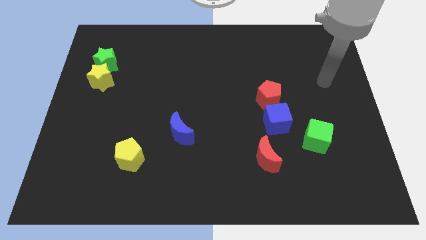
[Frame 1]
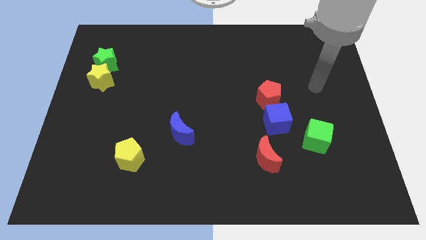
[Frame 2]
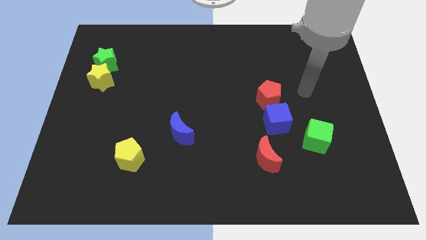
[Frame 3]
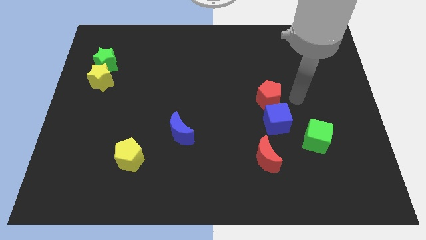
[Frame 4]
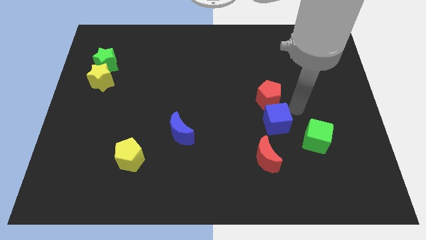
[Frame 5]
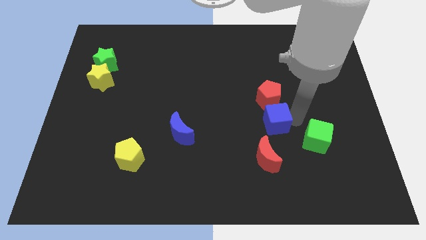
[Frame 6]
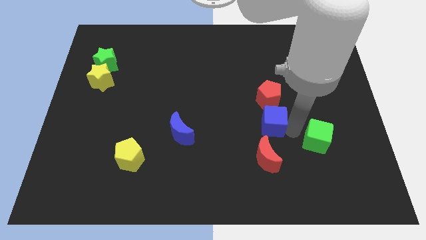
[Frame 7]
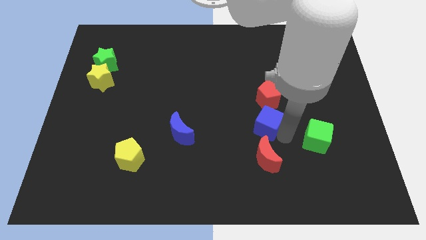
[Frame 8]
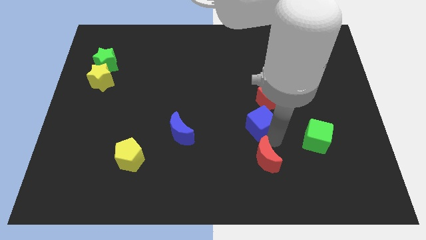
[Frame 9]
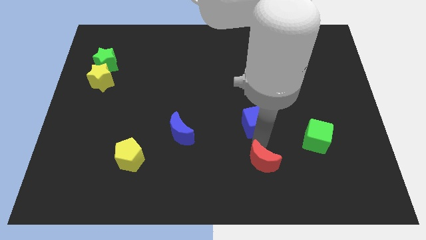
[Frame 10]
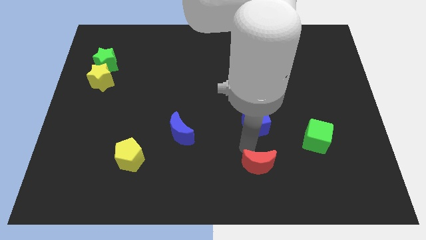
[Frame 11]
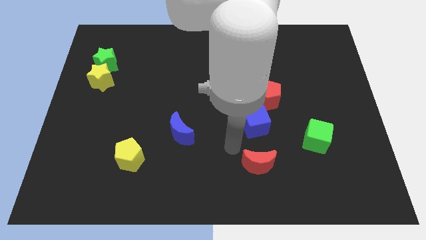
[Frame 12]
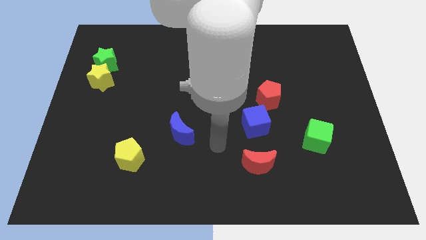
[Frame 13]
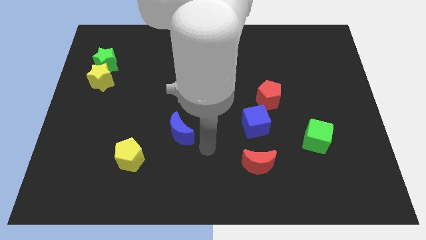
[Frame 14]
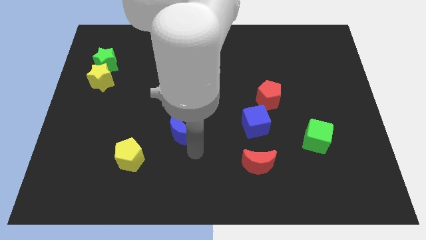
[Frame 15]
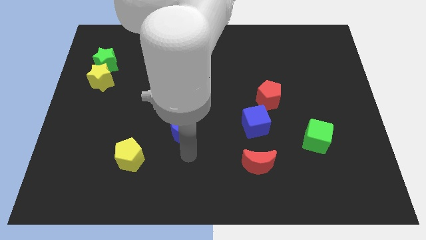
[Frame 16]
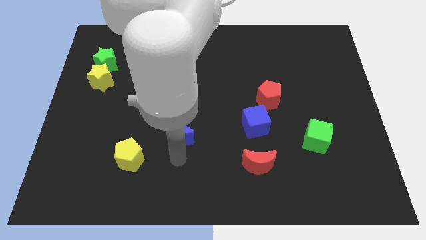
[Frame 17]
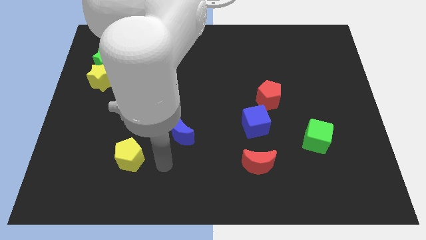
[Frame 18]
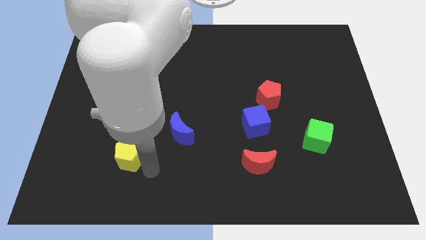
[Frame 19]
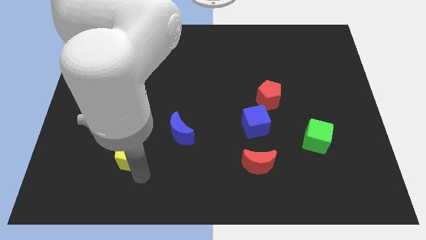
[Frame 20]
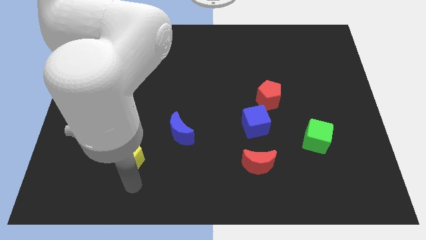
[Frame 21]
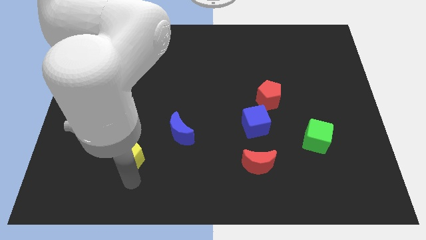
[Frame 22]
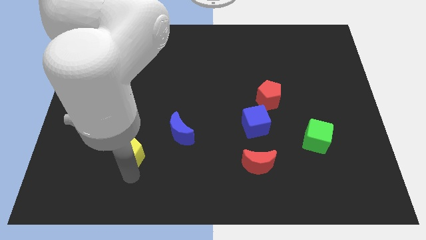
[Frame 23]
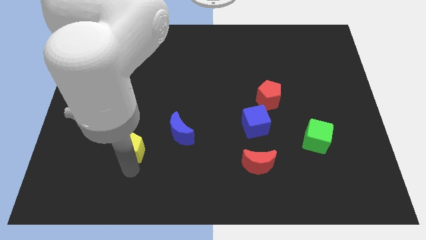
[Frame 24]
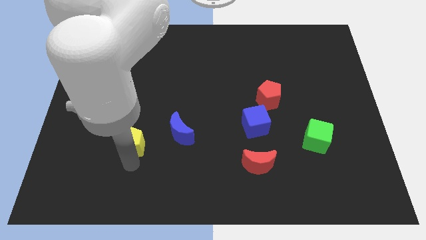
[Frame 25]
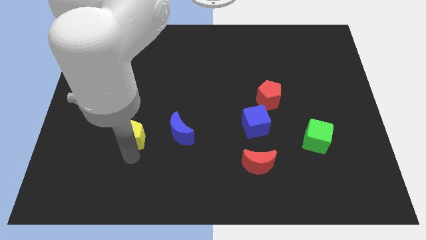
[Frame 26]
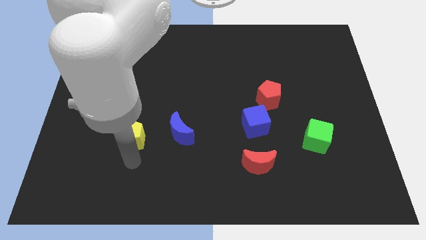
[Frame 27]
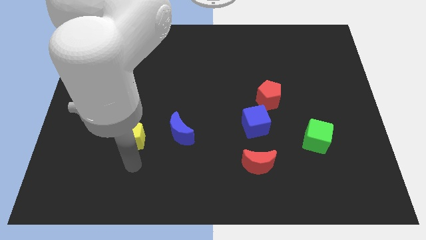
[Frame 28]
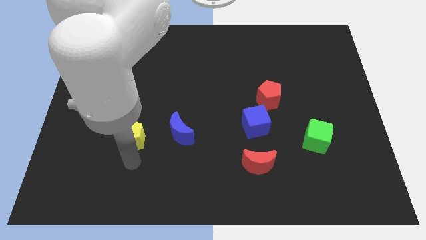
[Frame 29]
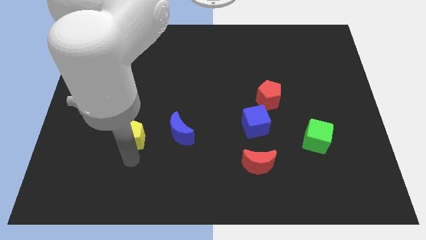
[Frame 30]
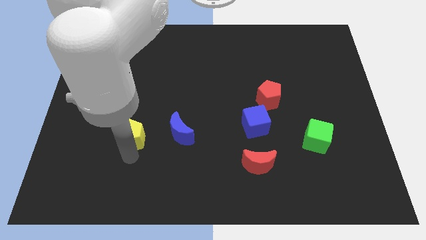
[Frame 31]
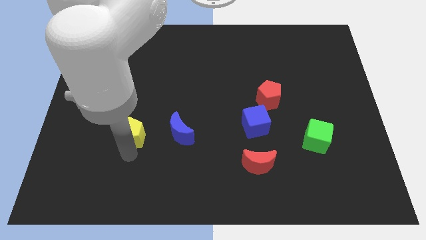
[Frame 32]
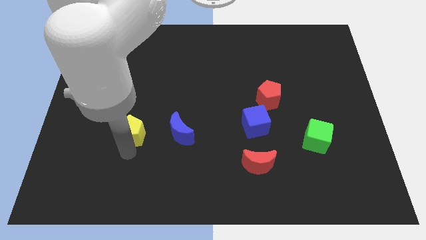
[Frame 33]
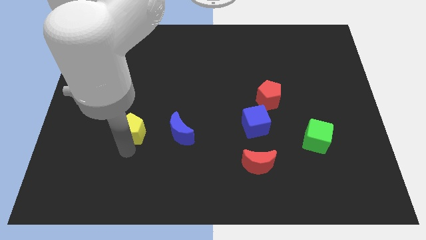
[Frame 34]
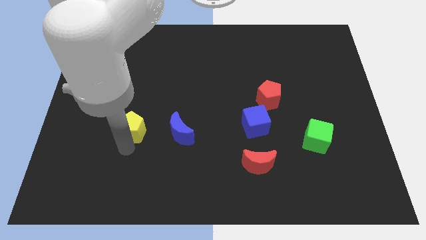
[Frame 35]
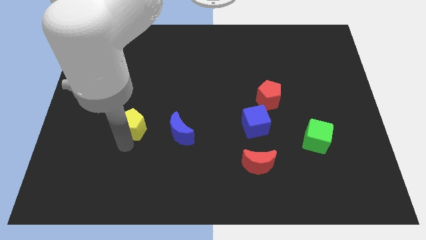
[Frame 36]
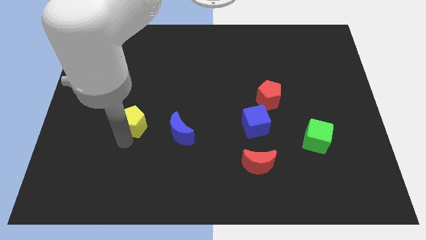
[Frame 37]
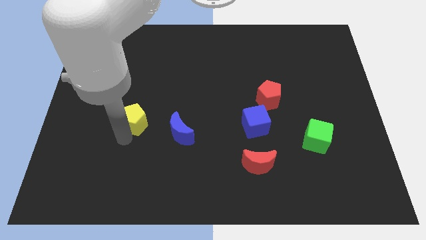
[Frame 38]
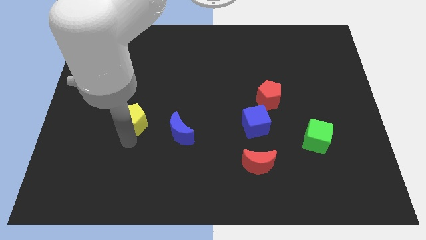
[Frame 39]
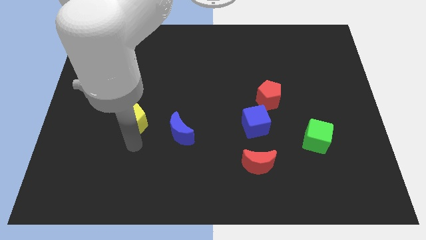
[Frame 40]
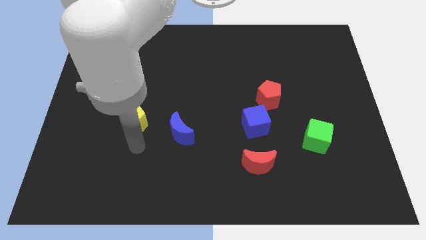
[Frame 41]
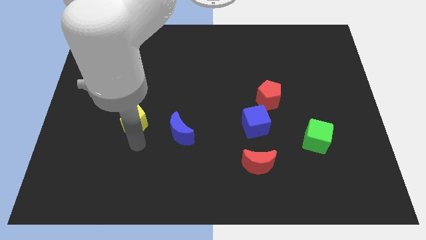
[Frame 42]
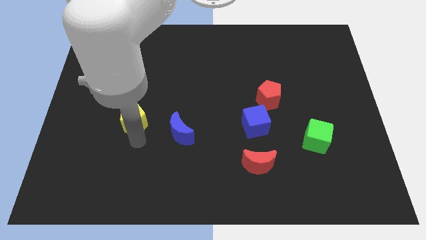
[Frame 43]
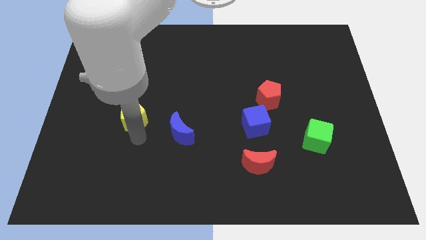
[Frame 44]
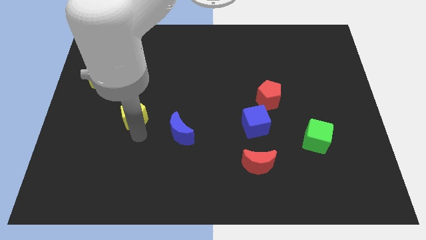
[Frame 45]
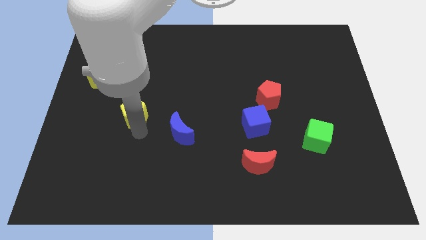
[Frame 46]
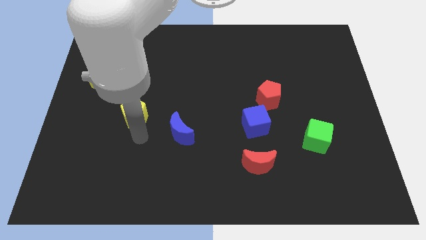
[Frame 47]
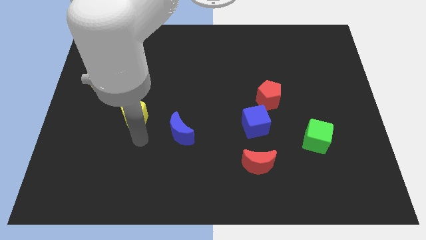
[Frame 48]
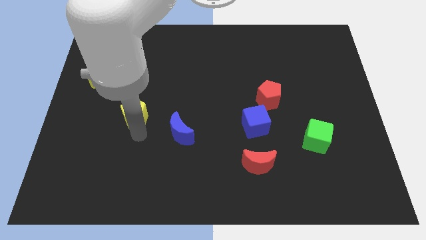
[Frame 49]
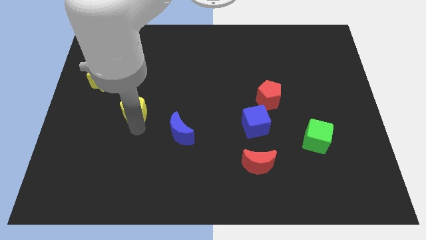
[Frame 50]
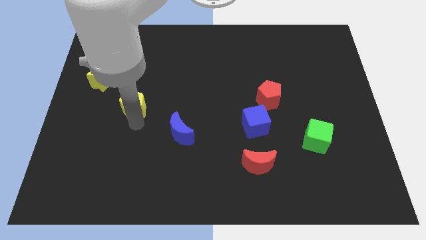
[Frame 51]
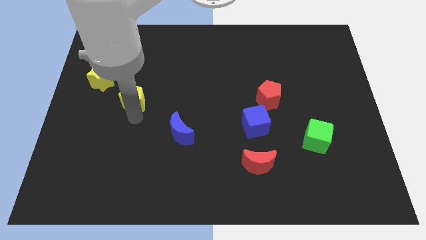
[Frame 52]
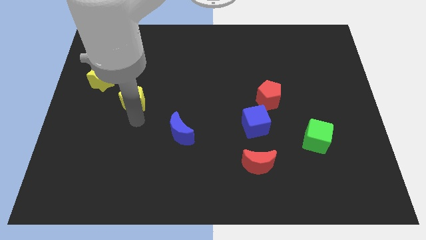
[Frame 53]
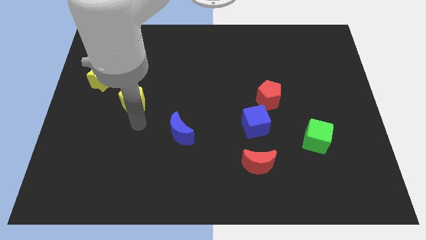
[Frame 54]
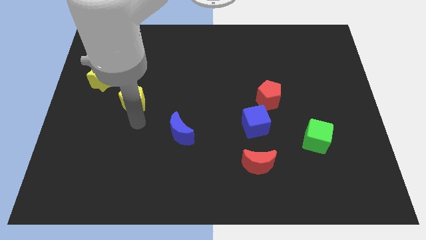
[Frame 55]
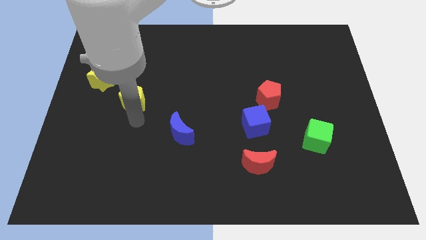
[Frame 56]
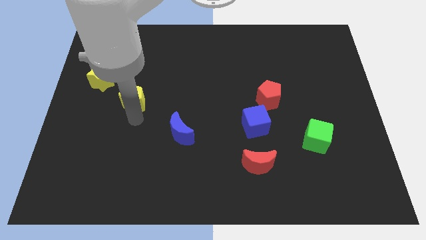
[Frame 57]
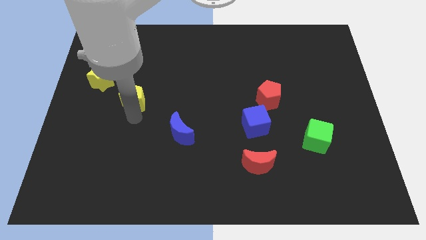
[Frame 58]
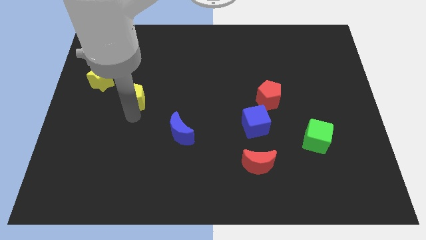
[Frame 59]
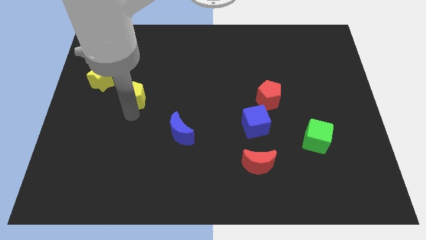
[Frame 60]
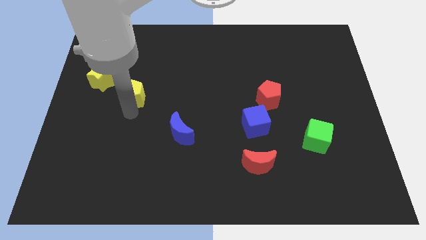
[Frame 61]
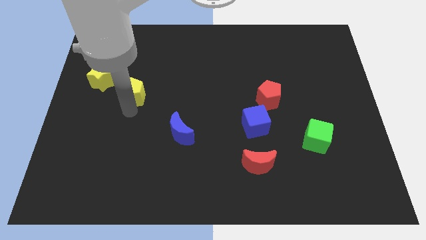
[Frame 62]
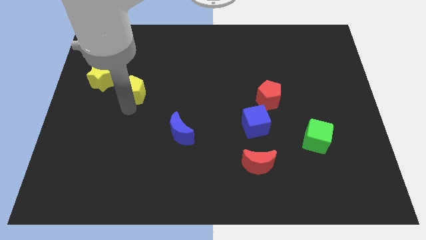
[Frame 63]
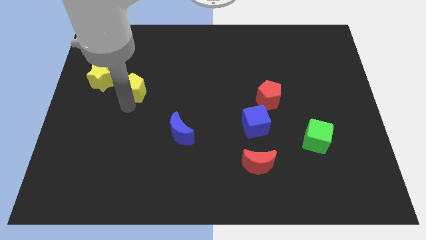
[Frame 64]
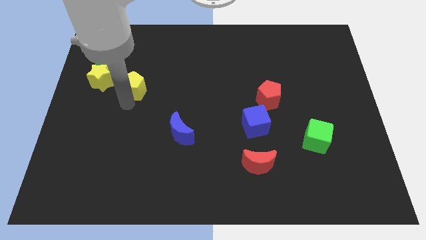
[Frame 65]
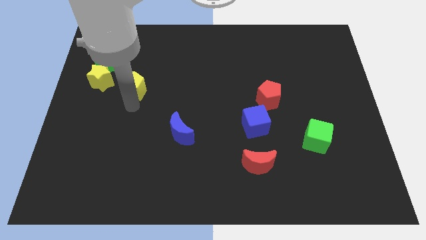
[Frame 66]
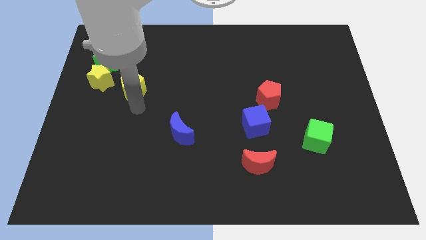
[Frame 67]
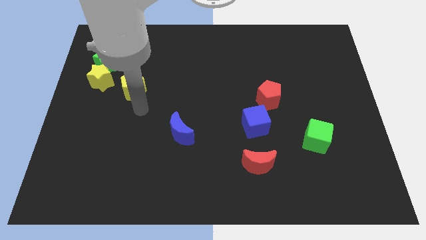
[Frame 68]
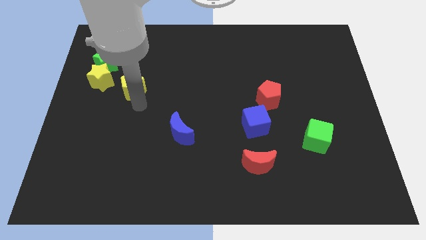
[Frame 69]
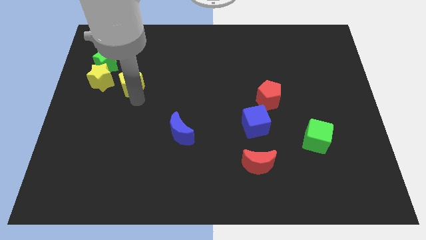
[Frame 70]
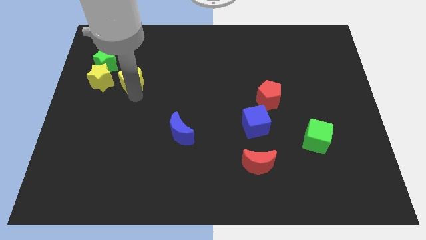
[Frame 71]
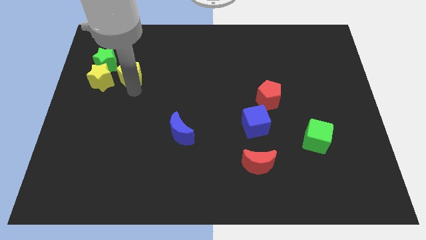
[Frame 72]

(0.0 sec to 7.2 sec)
slide the yellow pentagon to the top right side of the yellow star

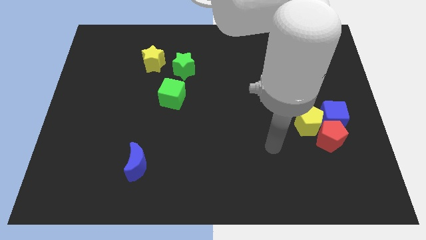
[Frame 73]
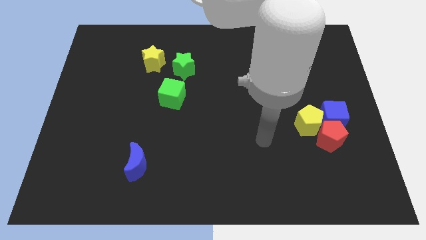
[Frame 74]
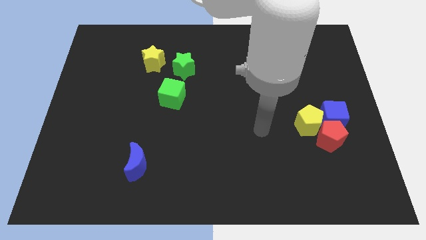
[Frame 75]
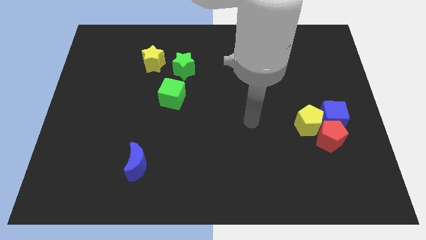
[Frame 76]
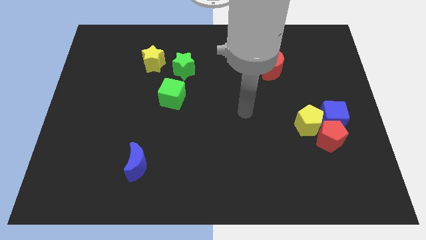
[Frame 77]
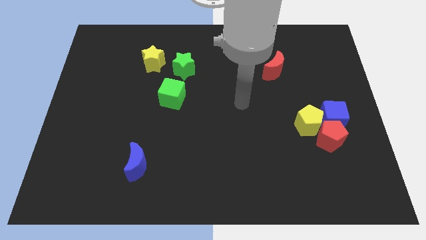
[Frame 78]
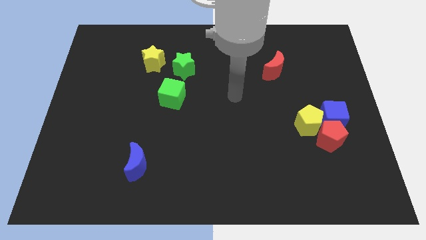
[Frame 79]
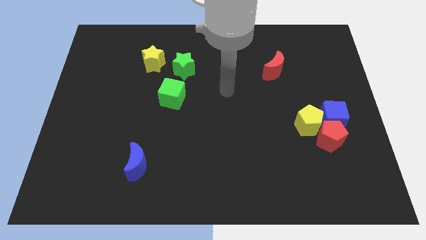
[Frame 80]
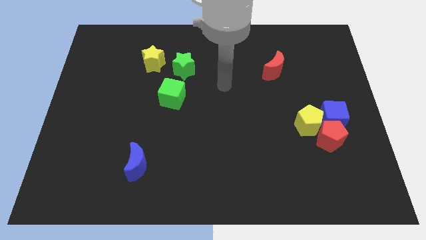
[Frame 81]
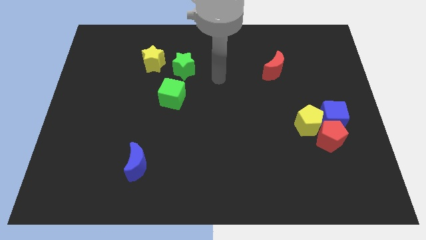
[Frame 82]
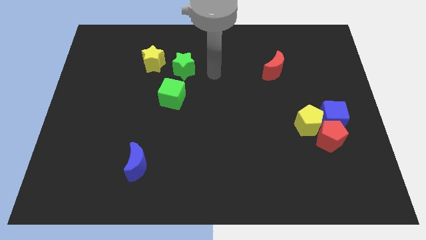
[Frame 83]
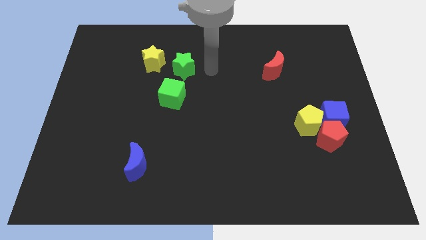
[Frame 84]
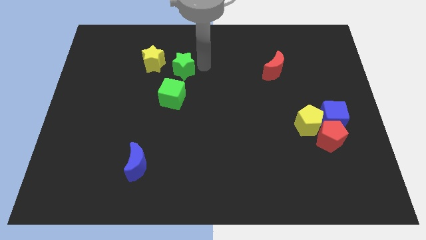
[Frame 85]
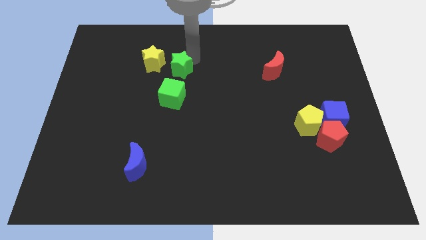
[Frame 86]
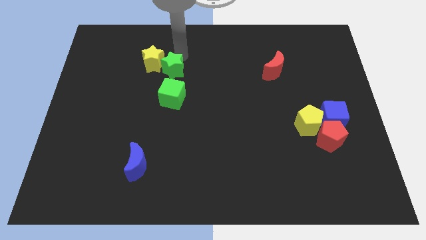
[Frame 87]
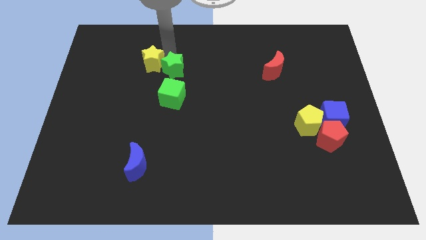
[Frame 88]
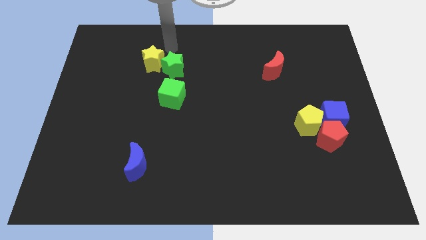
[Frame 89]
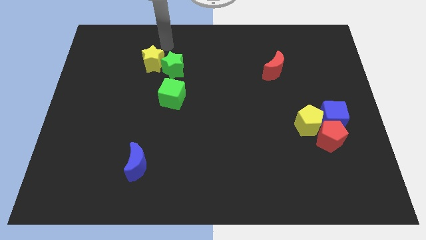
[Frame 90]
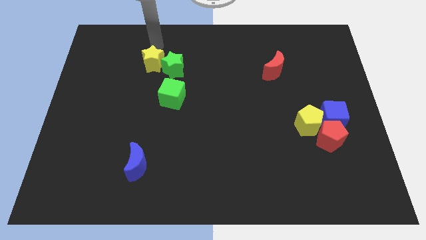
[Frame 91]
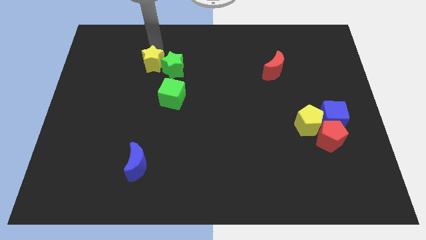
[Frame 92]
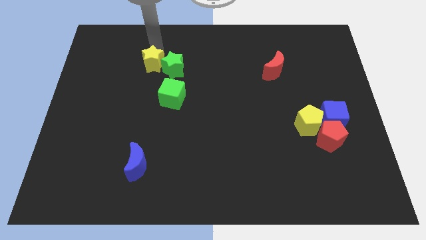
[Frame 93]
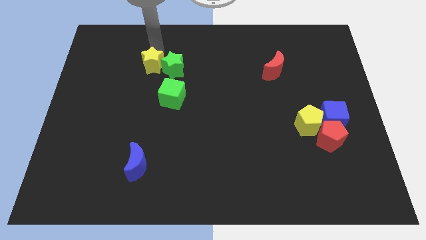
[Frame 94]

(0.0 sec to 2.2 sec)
move the yellow star to the top left of the green cube
